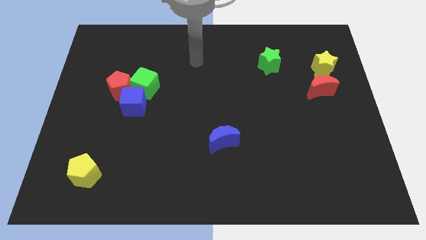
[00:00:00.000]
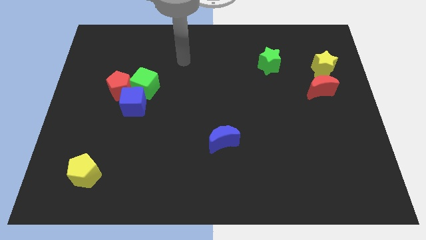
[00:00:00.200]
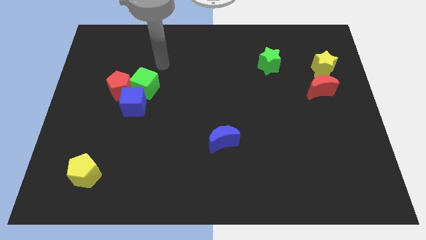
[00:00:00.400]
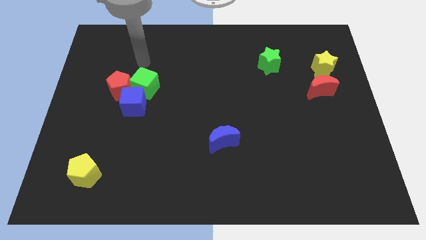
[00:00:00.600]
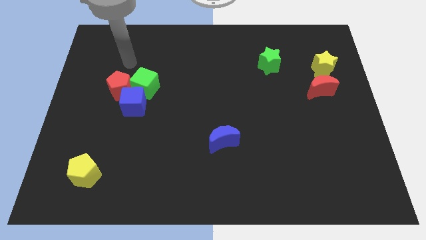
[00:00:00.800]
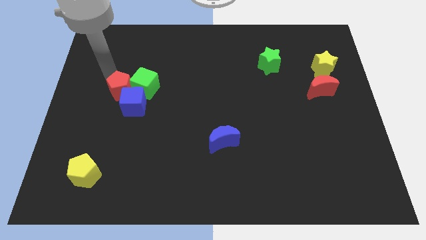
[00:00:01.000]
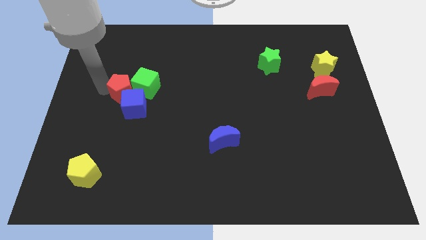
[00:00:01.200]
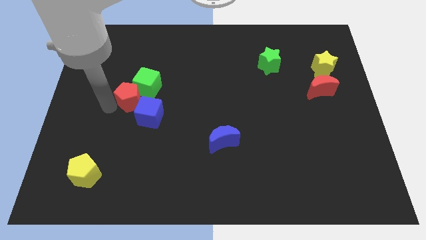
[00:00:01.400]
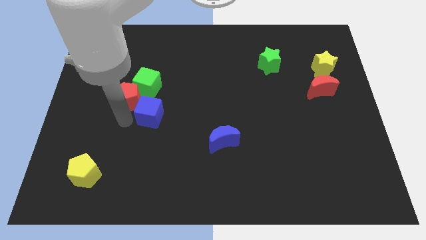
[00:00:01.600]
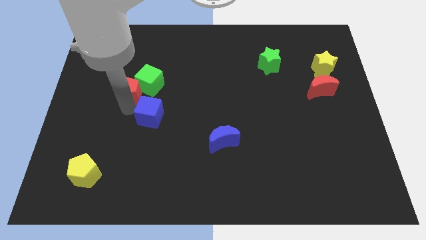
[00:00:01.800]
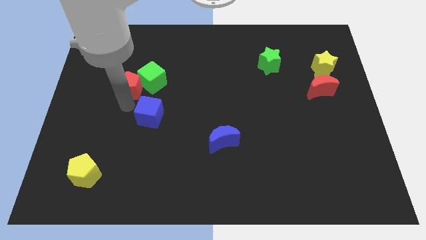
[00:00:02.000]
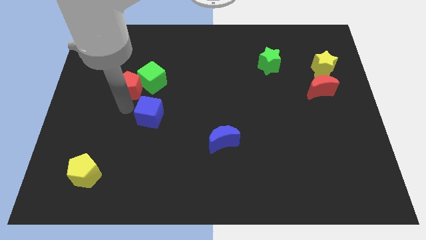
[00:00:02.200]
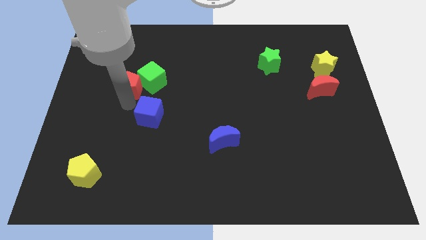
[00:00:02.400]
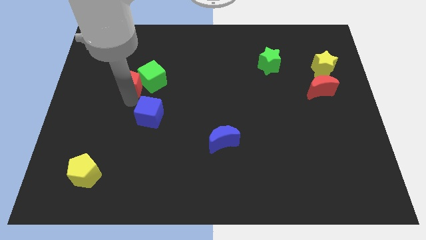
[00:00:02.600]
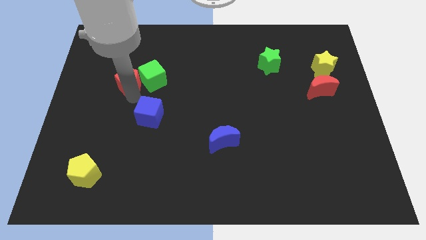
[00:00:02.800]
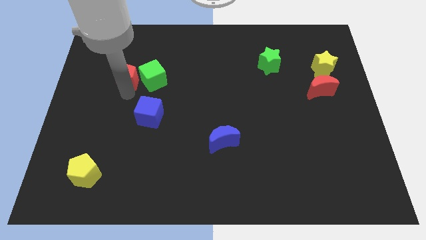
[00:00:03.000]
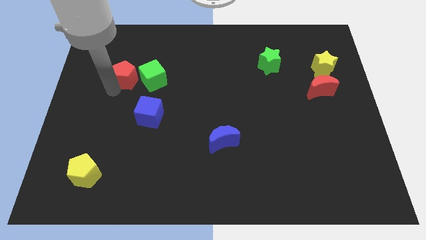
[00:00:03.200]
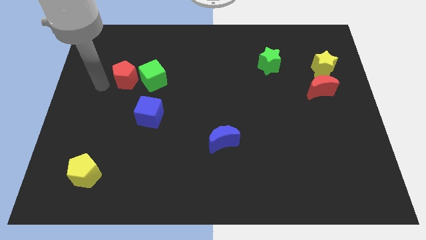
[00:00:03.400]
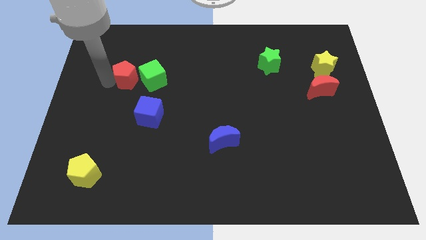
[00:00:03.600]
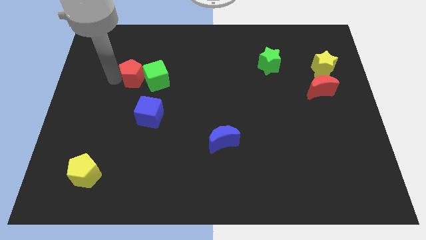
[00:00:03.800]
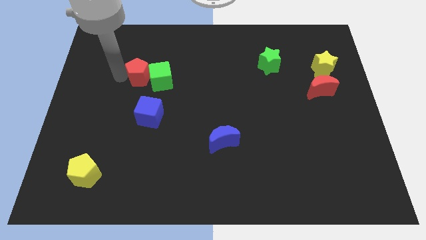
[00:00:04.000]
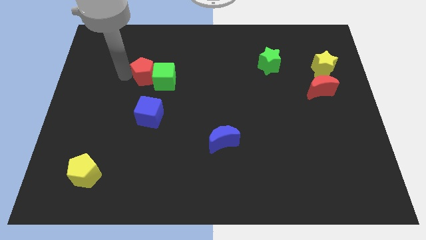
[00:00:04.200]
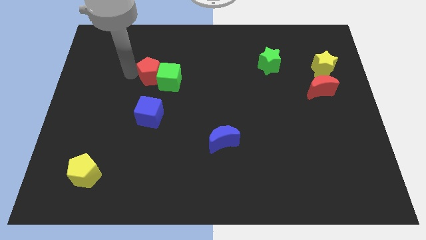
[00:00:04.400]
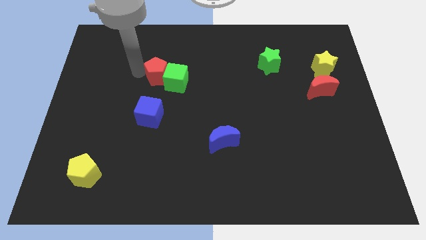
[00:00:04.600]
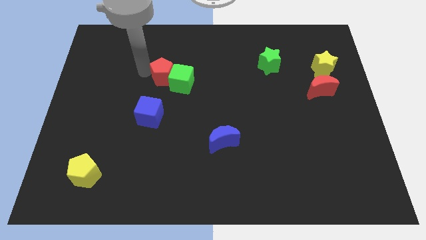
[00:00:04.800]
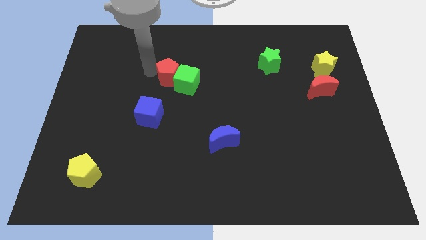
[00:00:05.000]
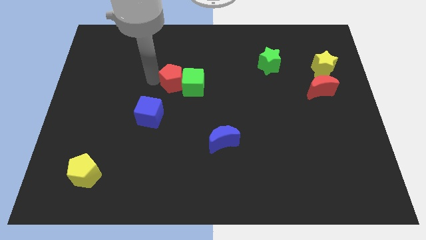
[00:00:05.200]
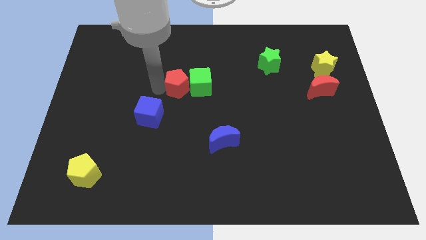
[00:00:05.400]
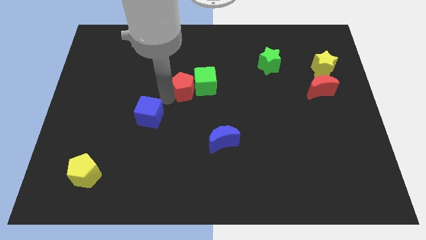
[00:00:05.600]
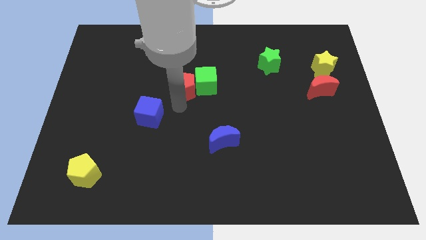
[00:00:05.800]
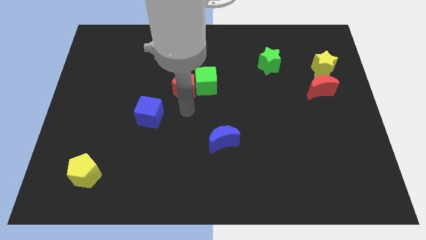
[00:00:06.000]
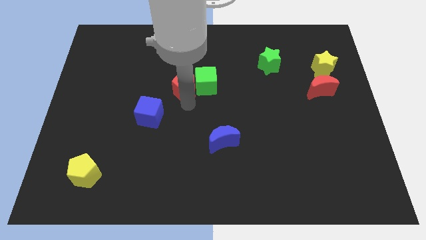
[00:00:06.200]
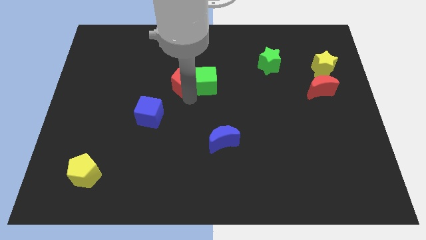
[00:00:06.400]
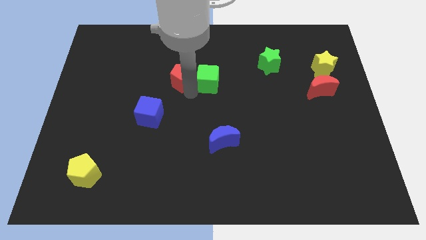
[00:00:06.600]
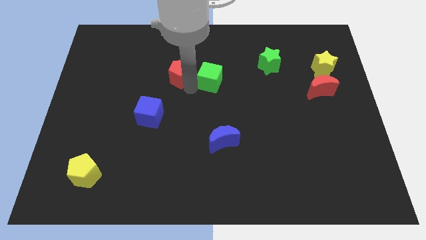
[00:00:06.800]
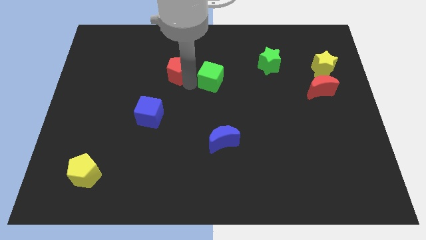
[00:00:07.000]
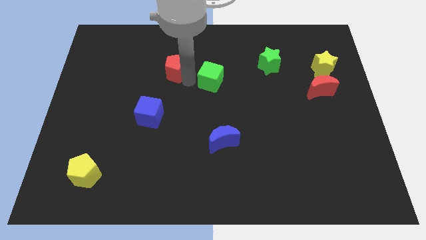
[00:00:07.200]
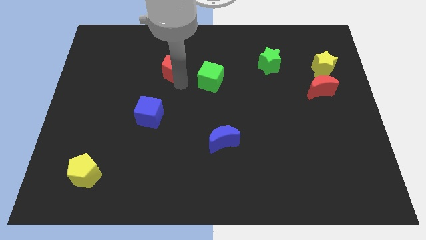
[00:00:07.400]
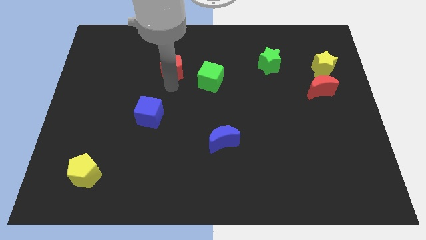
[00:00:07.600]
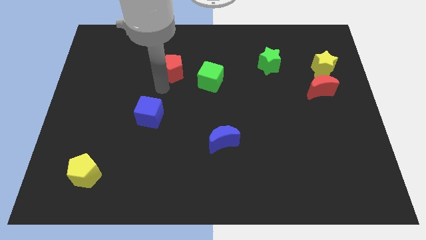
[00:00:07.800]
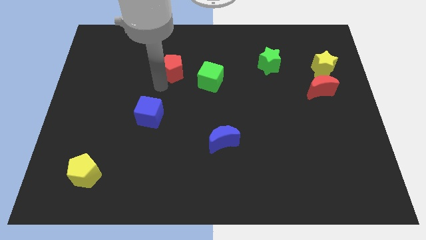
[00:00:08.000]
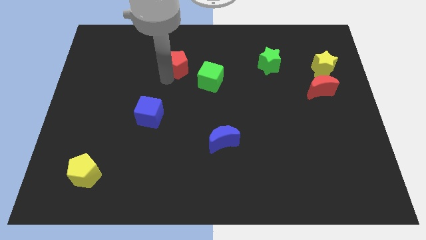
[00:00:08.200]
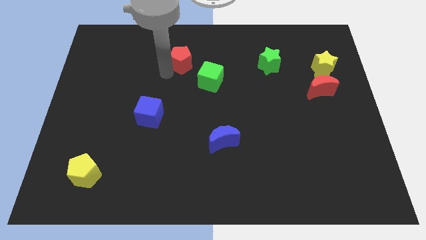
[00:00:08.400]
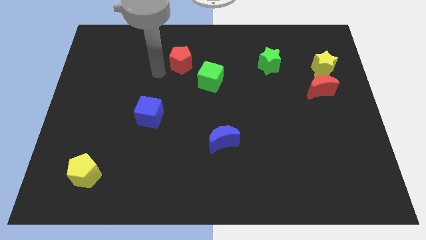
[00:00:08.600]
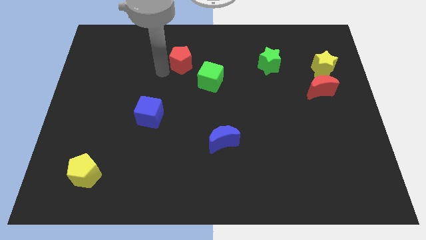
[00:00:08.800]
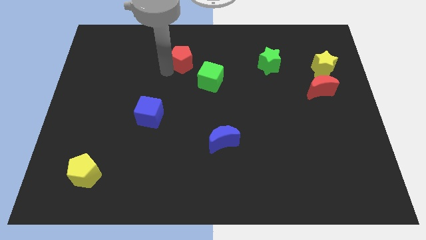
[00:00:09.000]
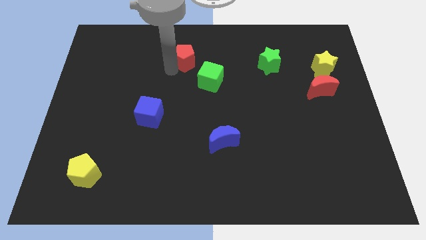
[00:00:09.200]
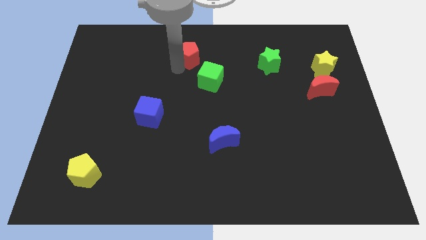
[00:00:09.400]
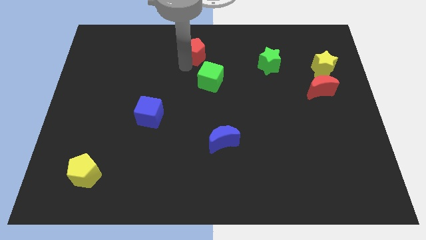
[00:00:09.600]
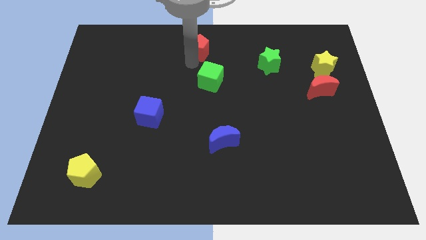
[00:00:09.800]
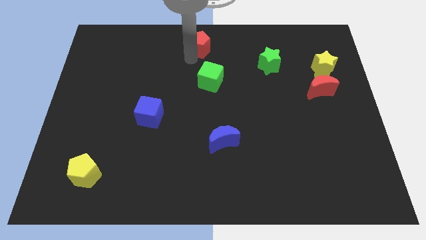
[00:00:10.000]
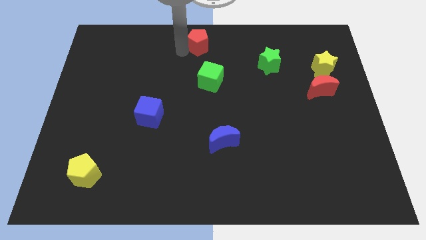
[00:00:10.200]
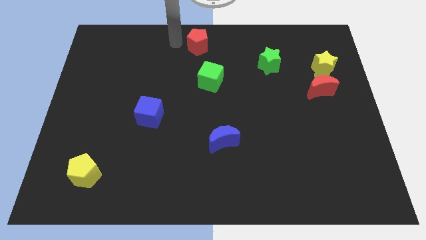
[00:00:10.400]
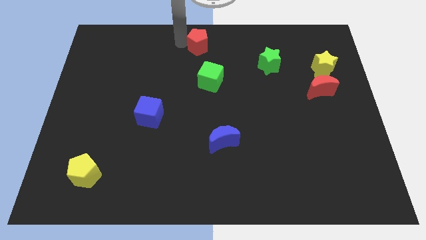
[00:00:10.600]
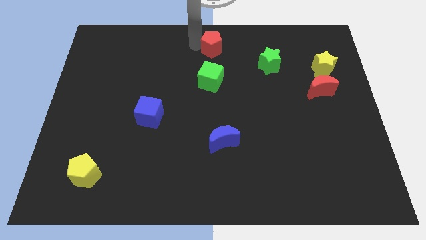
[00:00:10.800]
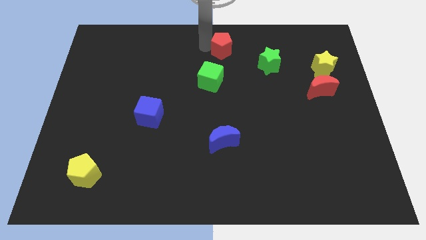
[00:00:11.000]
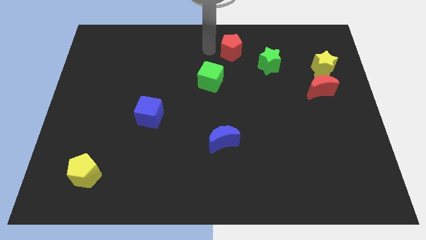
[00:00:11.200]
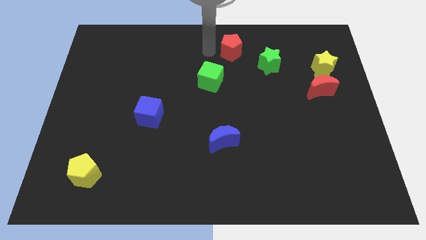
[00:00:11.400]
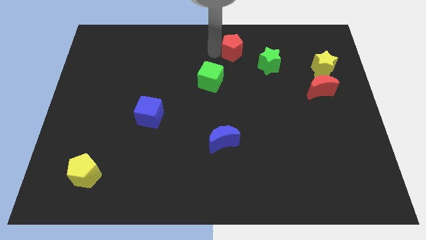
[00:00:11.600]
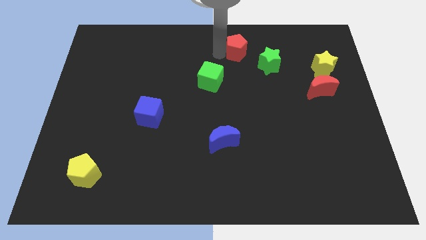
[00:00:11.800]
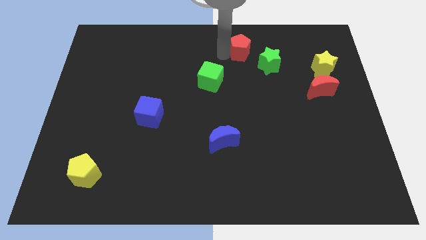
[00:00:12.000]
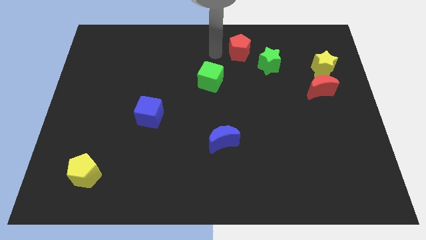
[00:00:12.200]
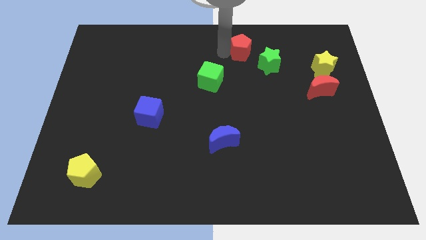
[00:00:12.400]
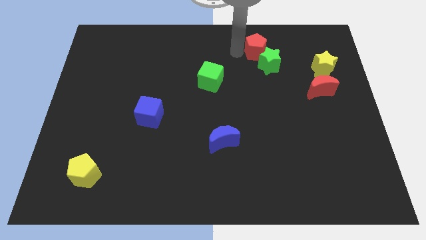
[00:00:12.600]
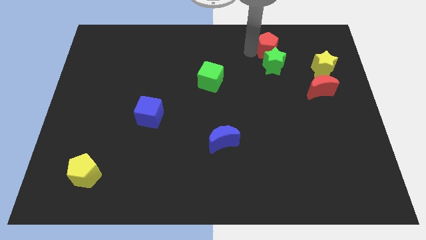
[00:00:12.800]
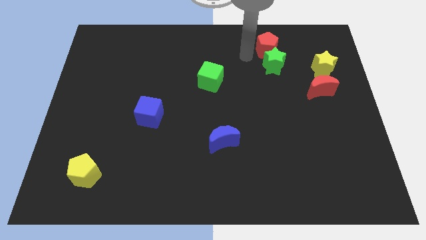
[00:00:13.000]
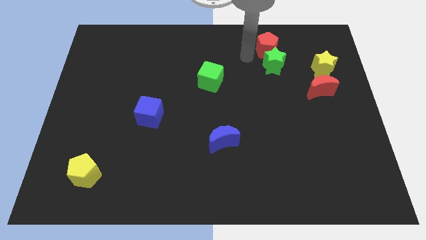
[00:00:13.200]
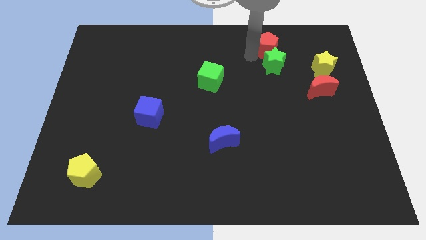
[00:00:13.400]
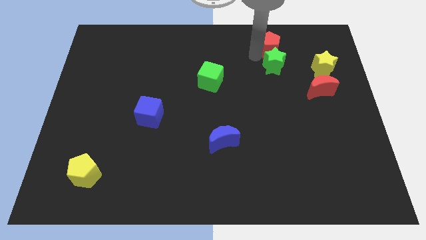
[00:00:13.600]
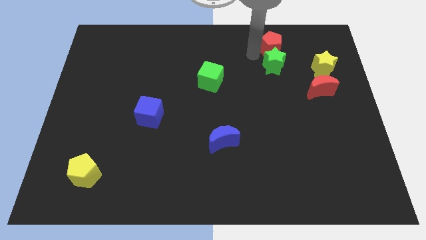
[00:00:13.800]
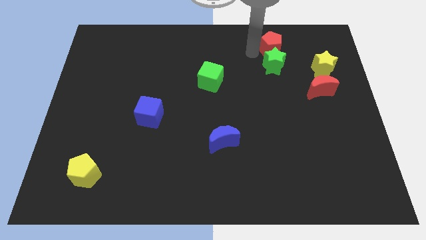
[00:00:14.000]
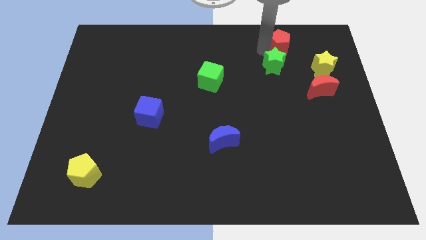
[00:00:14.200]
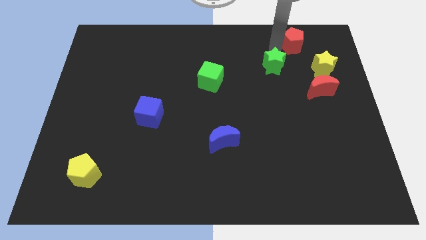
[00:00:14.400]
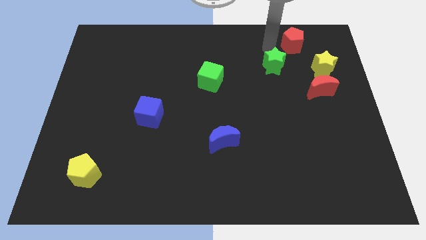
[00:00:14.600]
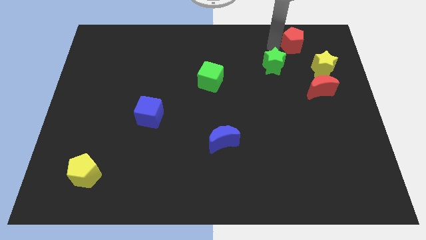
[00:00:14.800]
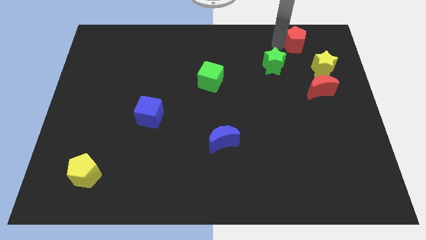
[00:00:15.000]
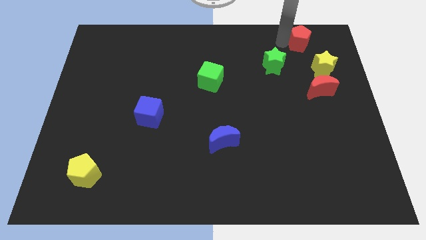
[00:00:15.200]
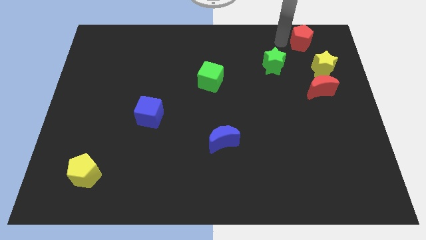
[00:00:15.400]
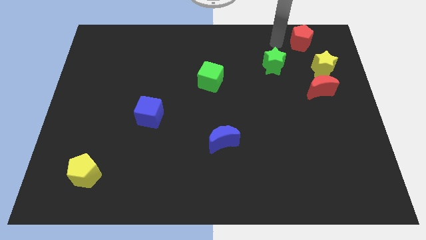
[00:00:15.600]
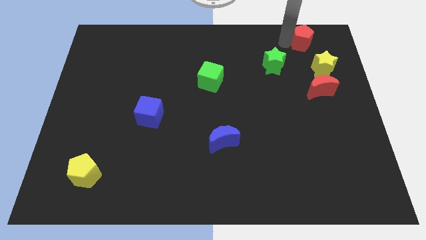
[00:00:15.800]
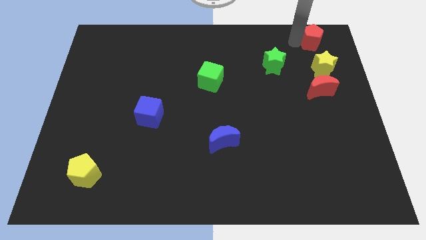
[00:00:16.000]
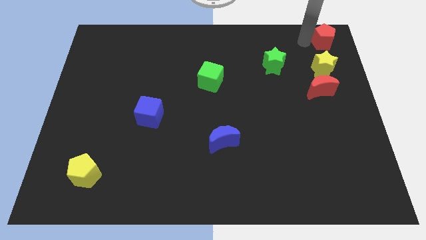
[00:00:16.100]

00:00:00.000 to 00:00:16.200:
push the red pentagon to the upper right corner
